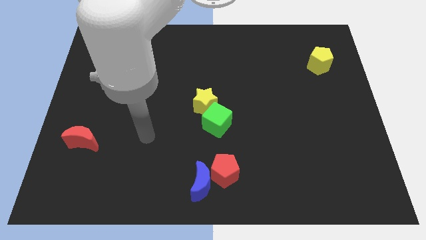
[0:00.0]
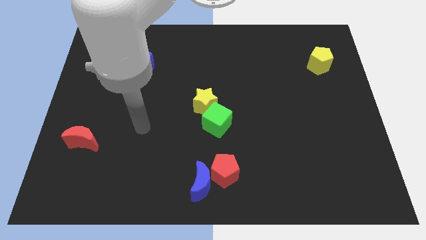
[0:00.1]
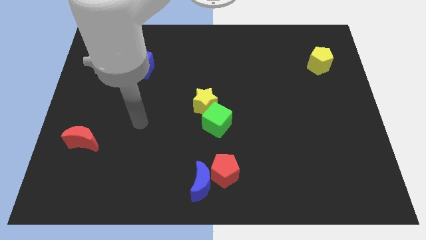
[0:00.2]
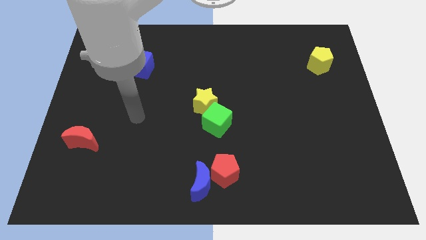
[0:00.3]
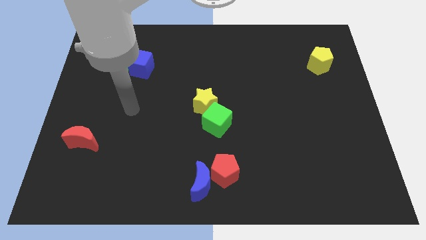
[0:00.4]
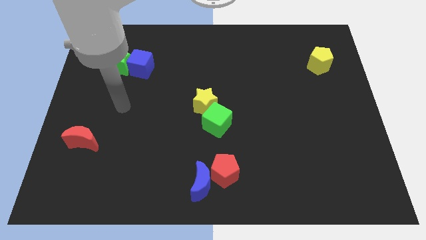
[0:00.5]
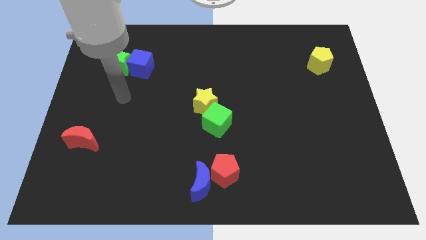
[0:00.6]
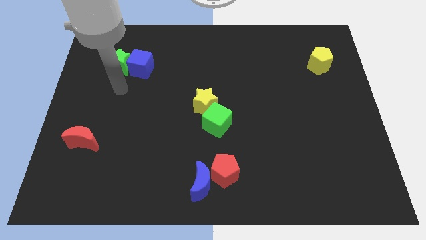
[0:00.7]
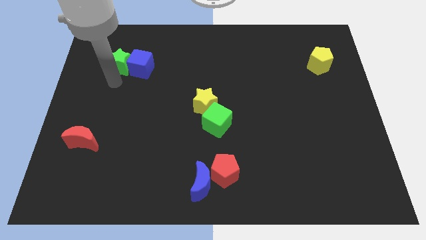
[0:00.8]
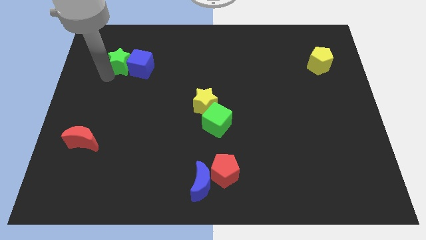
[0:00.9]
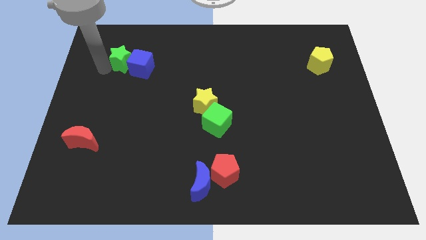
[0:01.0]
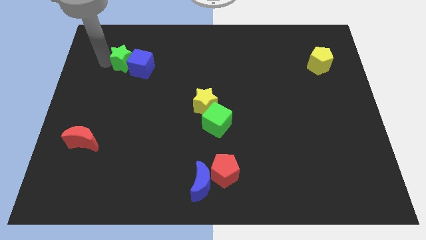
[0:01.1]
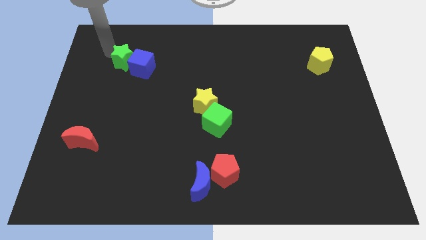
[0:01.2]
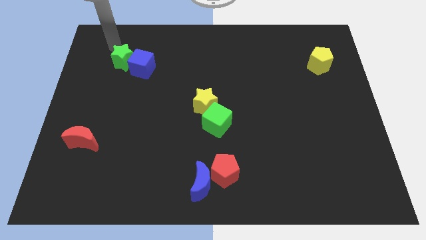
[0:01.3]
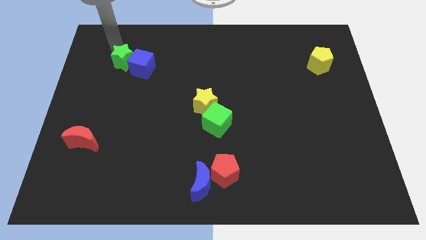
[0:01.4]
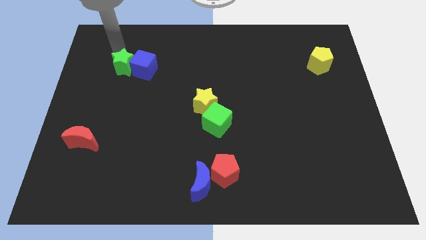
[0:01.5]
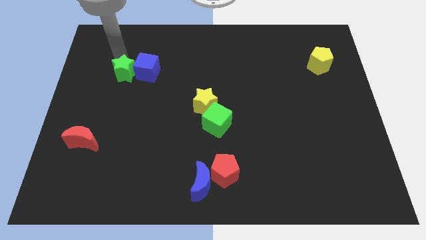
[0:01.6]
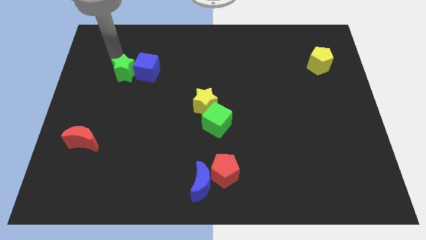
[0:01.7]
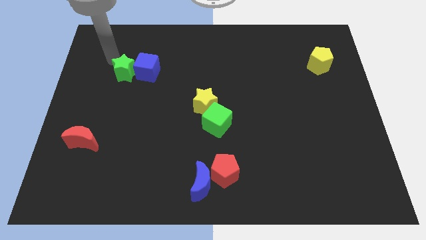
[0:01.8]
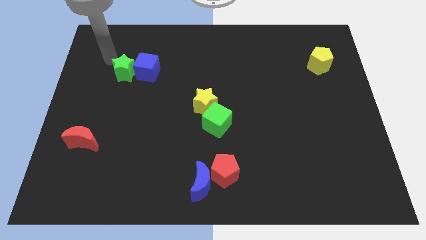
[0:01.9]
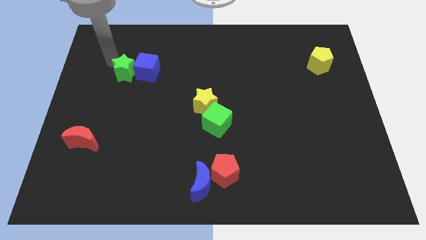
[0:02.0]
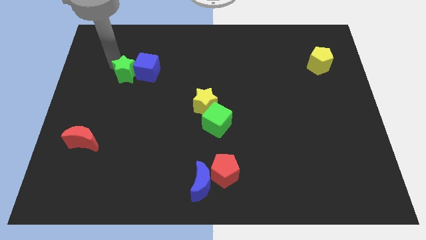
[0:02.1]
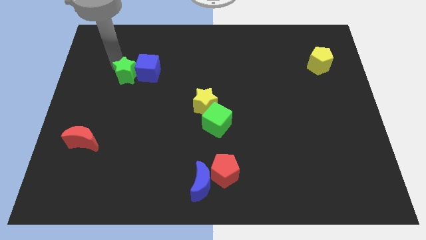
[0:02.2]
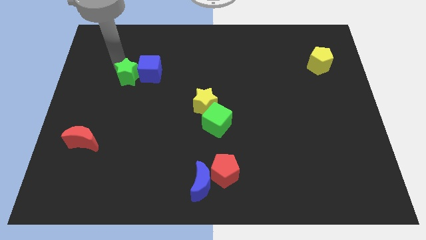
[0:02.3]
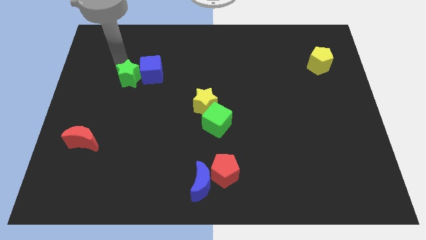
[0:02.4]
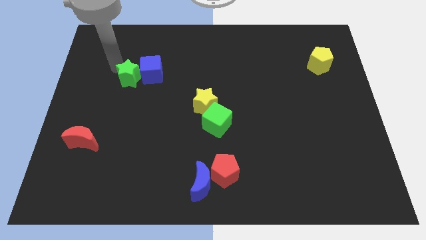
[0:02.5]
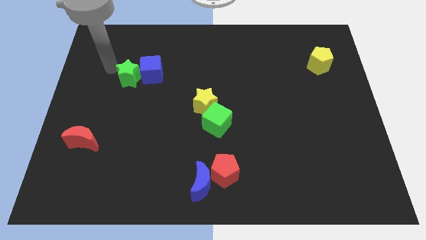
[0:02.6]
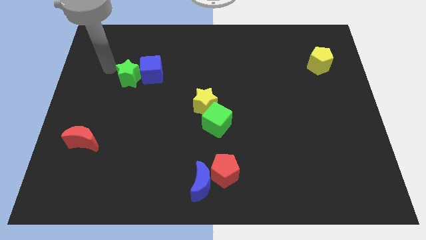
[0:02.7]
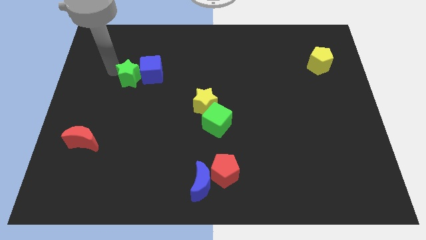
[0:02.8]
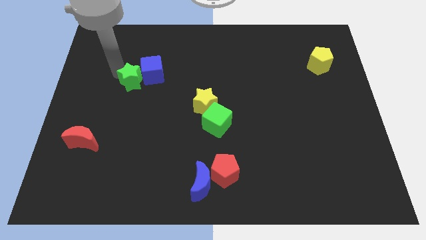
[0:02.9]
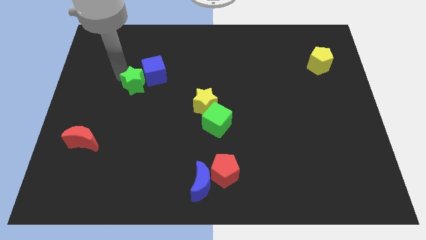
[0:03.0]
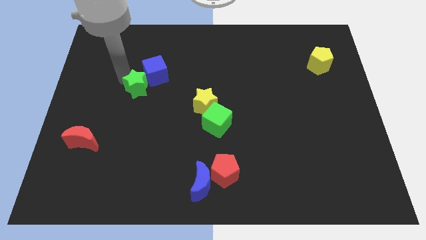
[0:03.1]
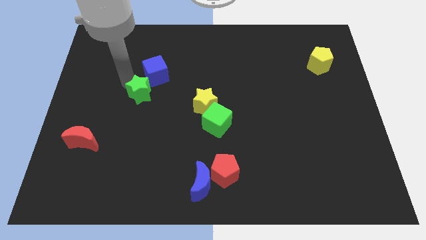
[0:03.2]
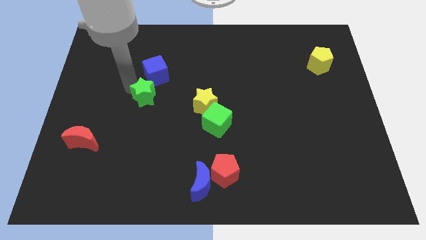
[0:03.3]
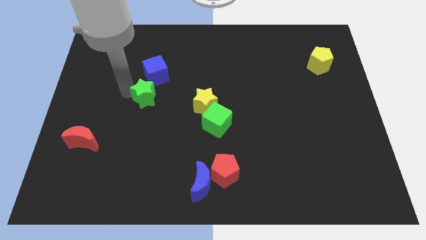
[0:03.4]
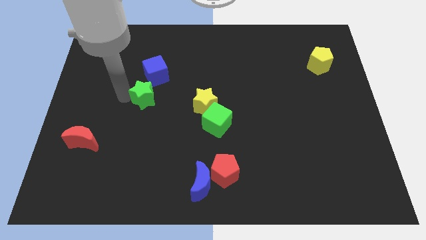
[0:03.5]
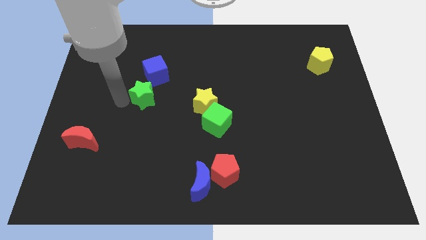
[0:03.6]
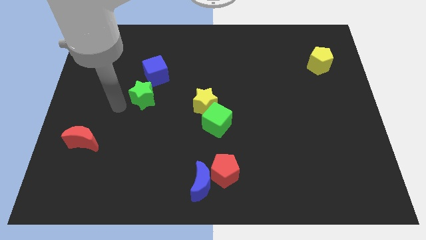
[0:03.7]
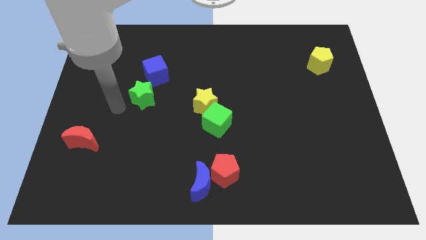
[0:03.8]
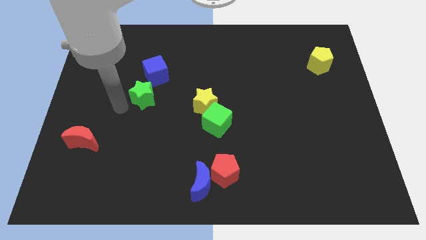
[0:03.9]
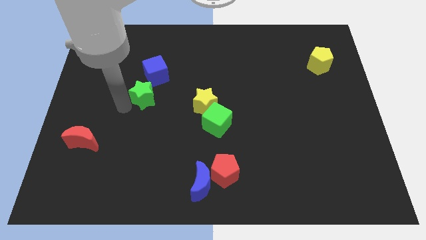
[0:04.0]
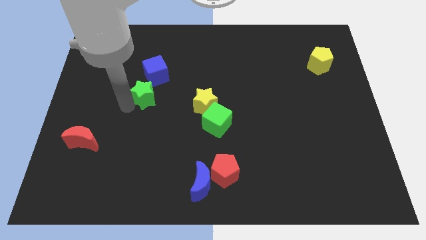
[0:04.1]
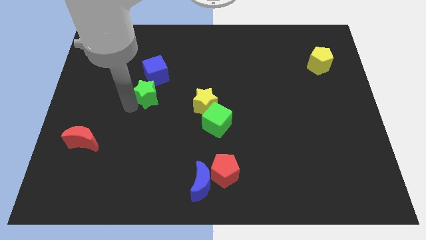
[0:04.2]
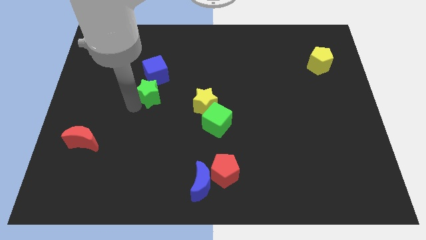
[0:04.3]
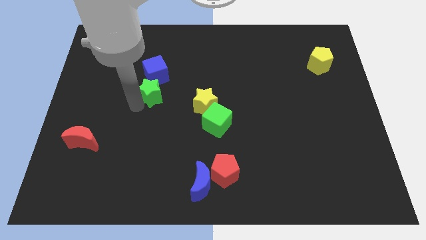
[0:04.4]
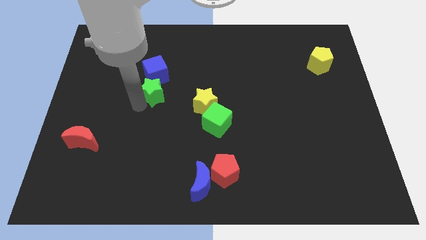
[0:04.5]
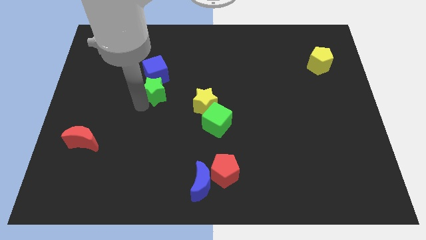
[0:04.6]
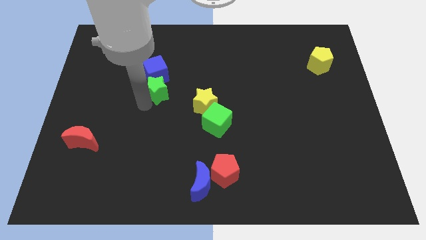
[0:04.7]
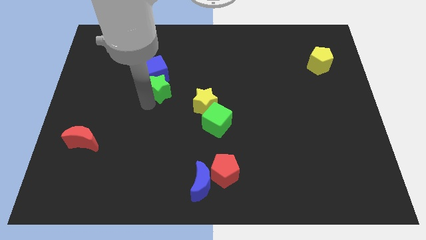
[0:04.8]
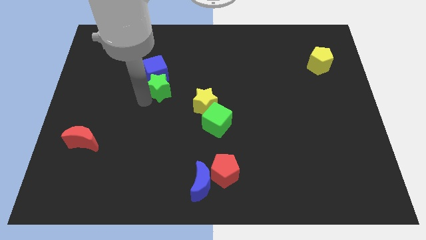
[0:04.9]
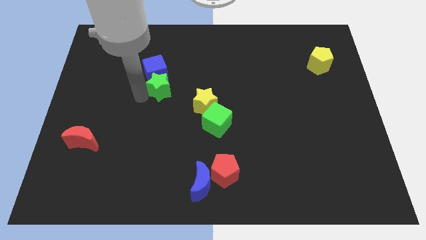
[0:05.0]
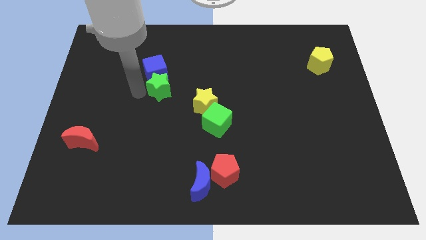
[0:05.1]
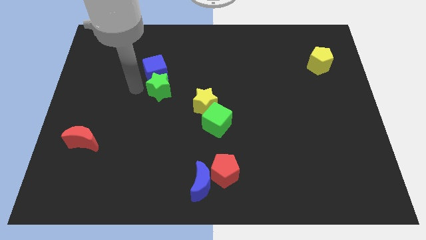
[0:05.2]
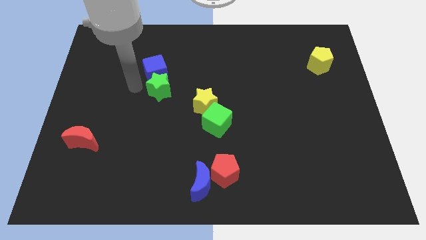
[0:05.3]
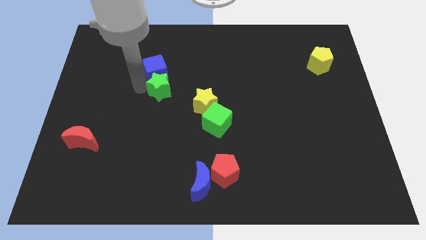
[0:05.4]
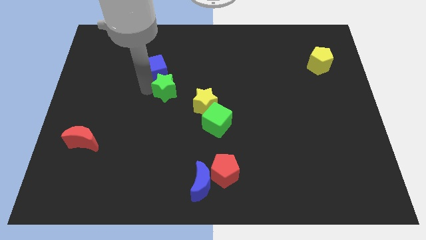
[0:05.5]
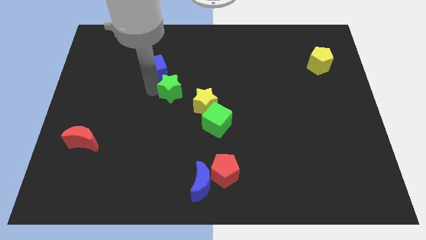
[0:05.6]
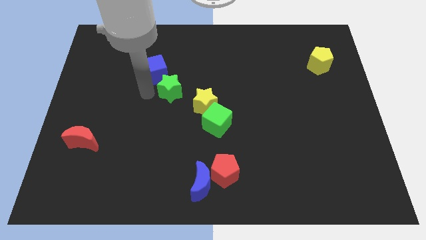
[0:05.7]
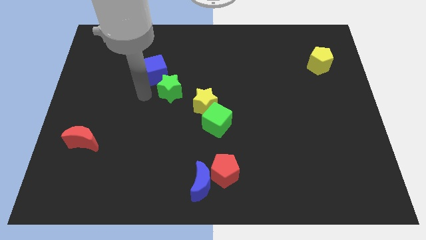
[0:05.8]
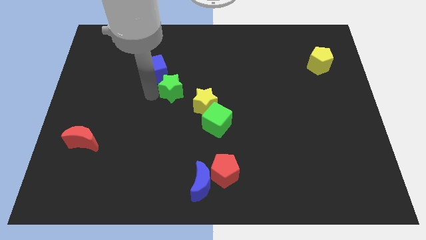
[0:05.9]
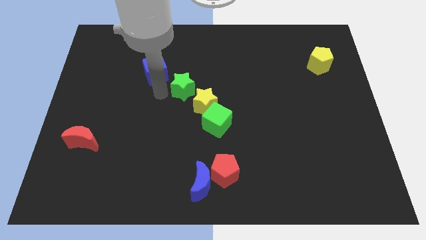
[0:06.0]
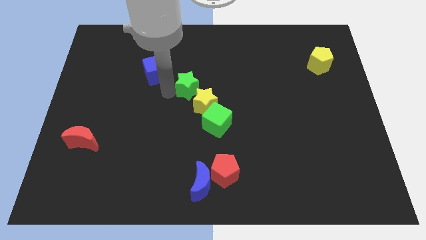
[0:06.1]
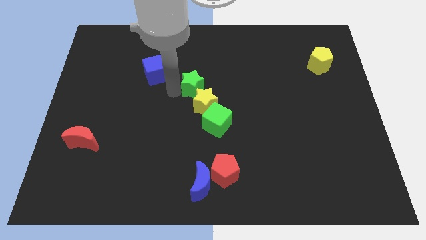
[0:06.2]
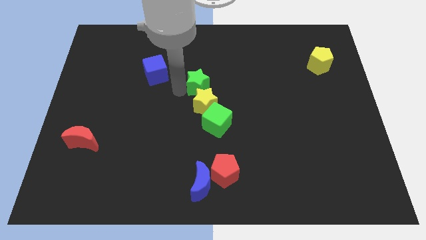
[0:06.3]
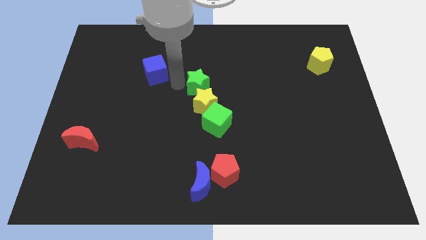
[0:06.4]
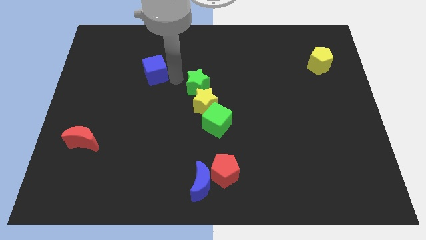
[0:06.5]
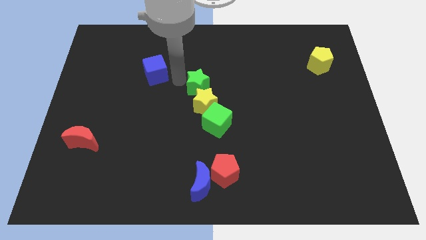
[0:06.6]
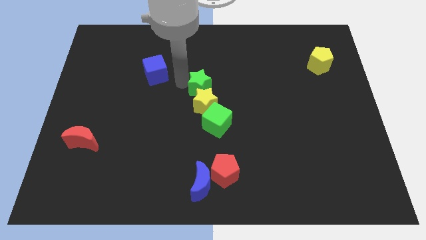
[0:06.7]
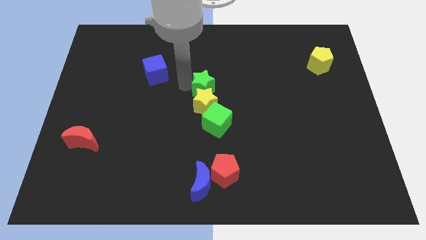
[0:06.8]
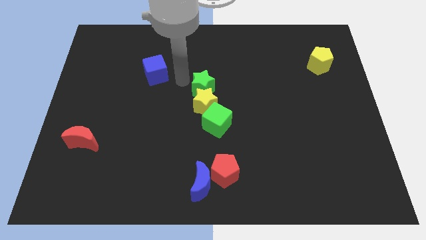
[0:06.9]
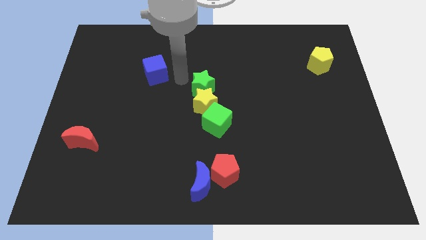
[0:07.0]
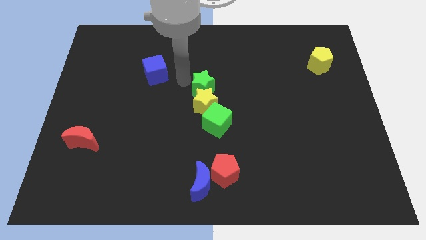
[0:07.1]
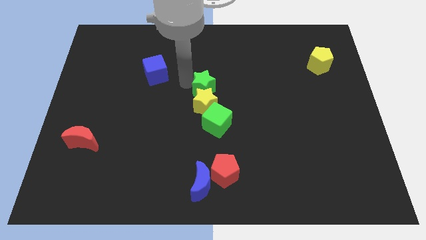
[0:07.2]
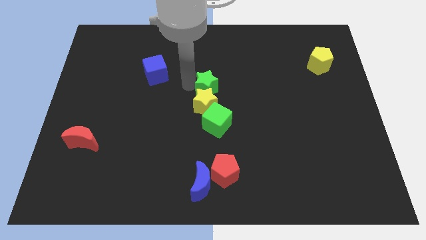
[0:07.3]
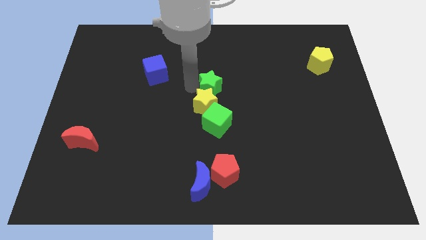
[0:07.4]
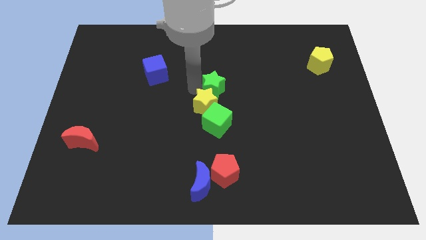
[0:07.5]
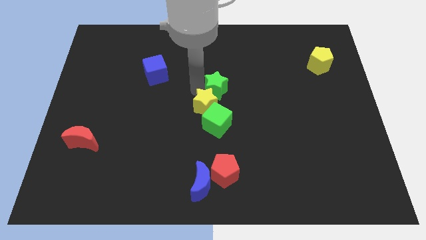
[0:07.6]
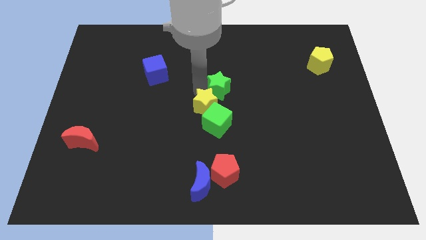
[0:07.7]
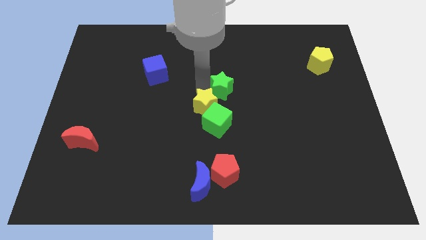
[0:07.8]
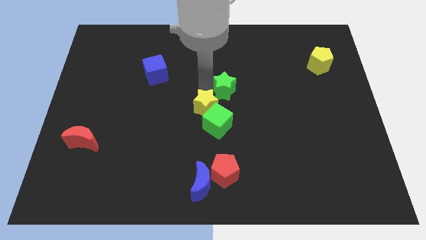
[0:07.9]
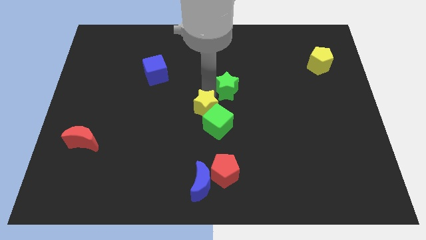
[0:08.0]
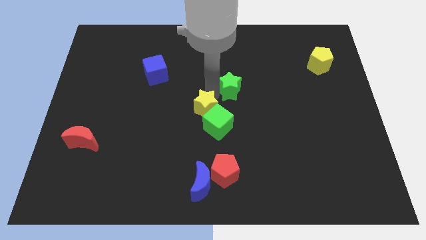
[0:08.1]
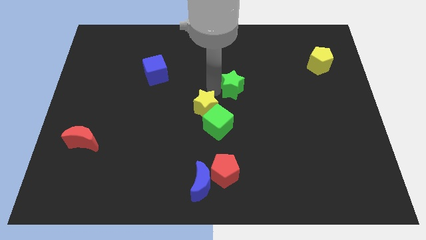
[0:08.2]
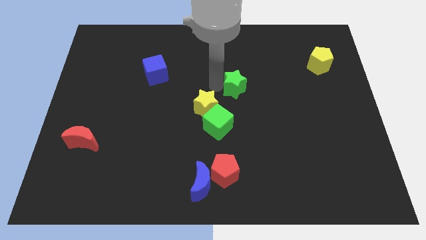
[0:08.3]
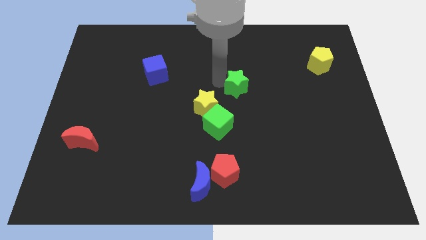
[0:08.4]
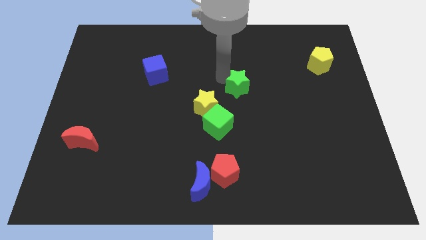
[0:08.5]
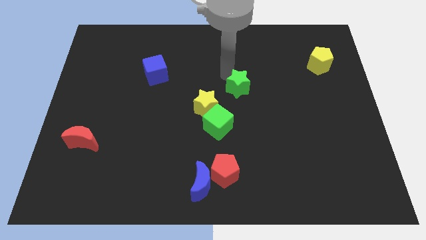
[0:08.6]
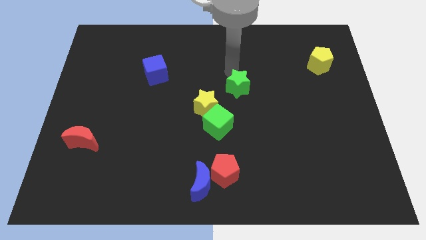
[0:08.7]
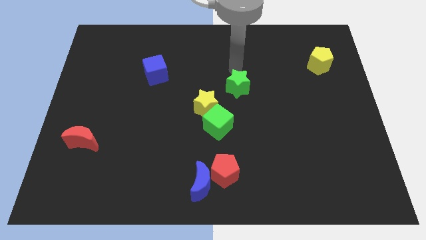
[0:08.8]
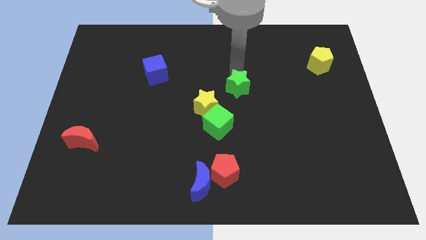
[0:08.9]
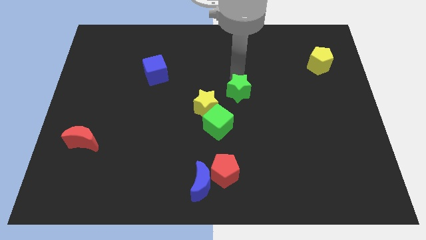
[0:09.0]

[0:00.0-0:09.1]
push the green star diagonally up and to the right of the green cube
